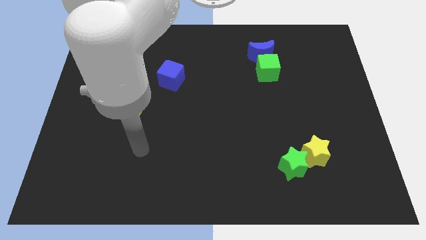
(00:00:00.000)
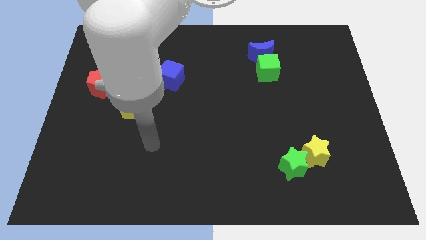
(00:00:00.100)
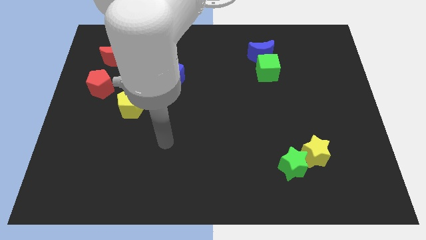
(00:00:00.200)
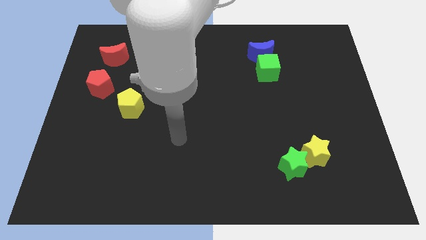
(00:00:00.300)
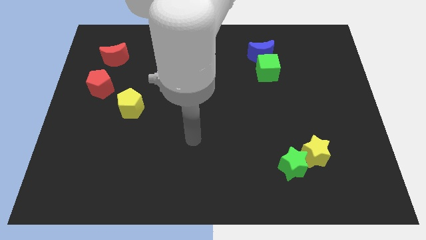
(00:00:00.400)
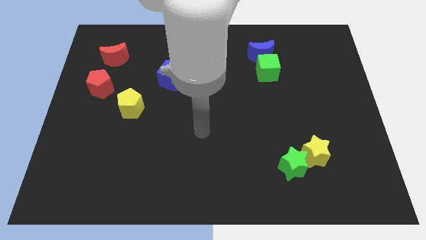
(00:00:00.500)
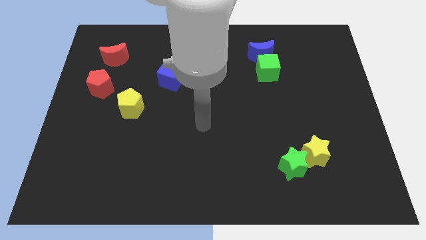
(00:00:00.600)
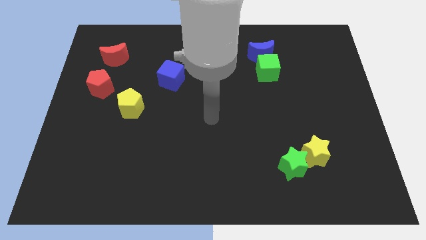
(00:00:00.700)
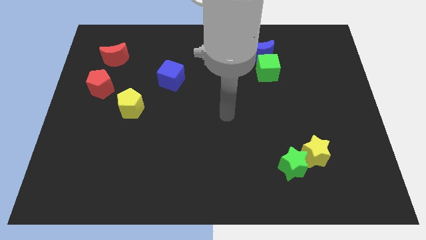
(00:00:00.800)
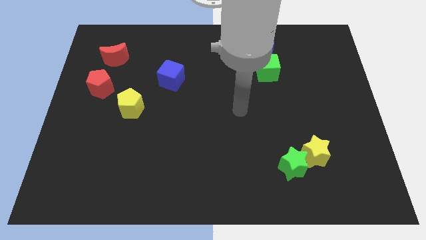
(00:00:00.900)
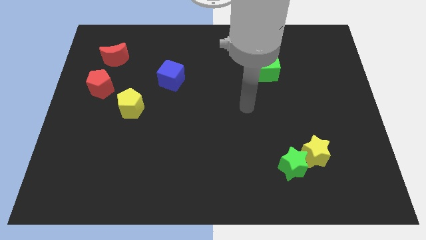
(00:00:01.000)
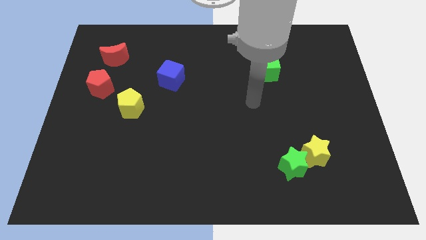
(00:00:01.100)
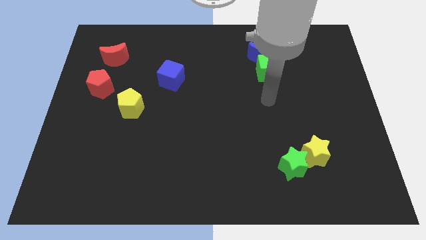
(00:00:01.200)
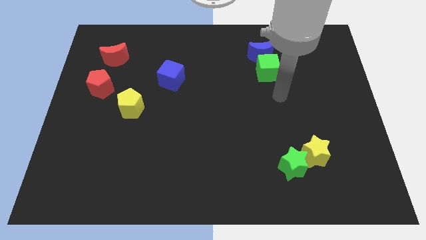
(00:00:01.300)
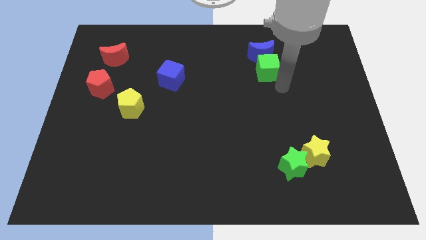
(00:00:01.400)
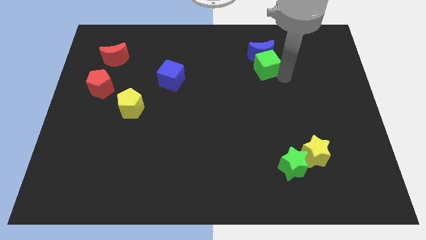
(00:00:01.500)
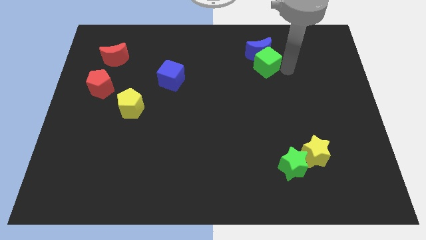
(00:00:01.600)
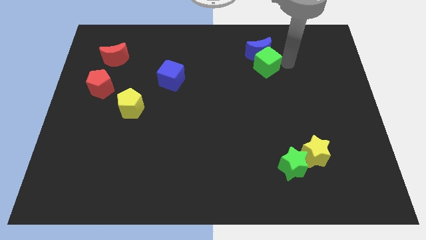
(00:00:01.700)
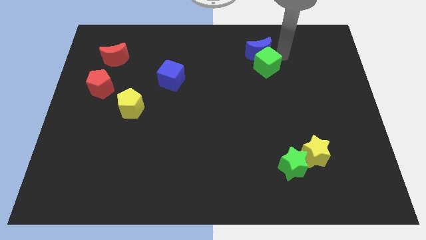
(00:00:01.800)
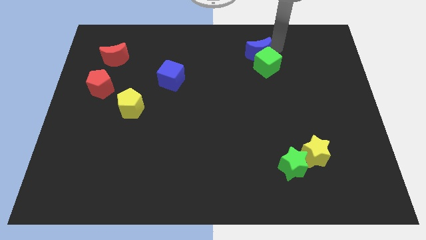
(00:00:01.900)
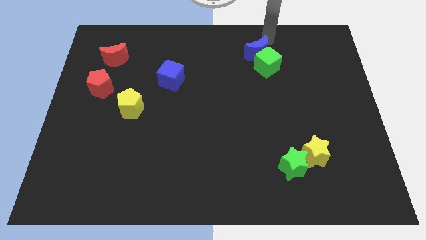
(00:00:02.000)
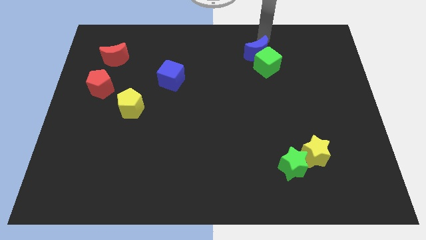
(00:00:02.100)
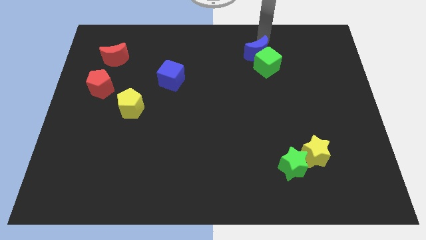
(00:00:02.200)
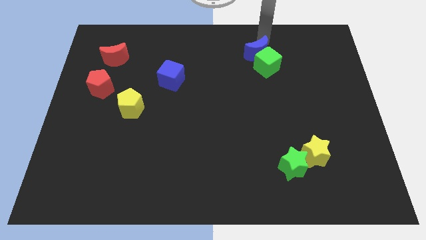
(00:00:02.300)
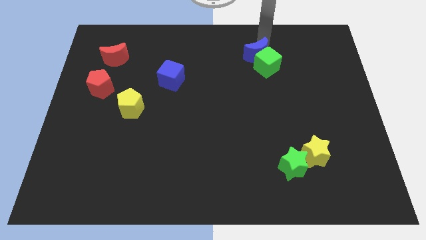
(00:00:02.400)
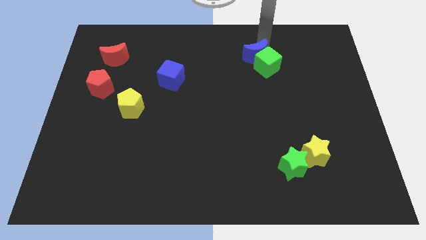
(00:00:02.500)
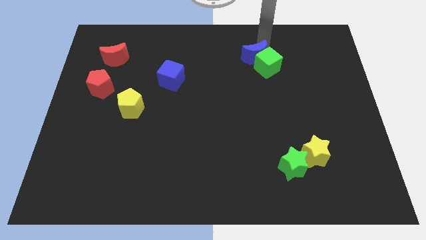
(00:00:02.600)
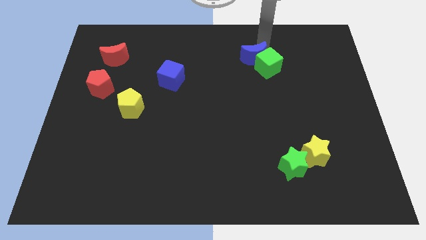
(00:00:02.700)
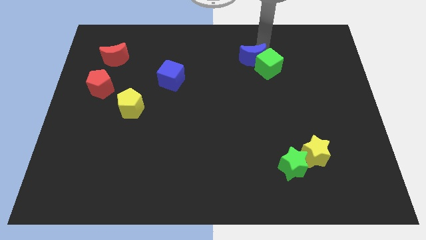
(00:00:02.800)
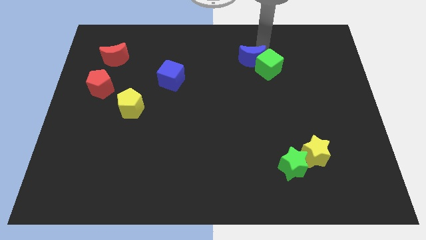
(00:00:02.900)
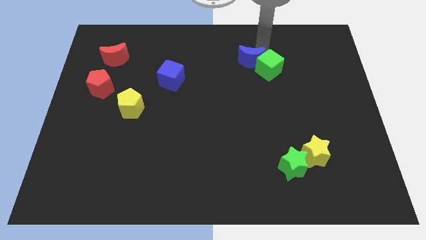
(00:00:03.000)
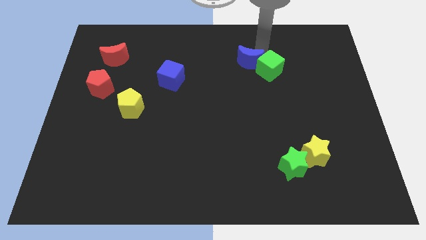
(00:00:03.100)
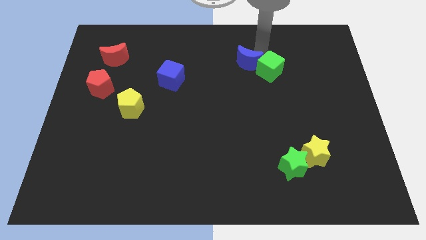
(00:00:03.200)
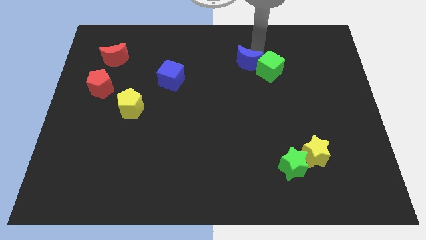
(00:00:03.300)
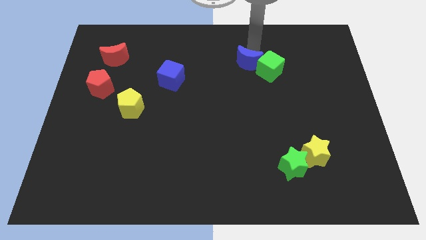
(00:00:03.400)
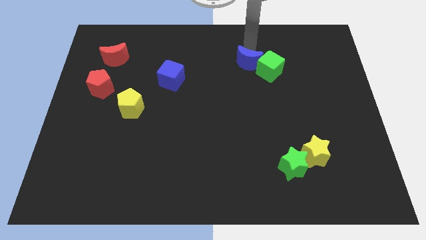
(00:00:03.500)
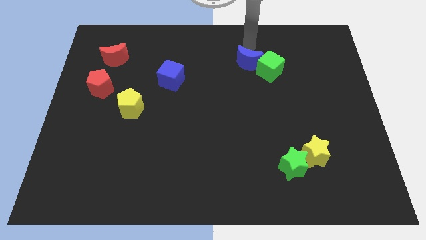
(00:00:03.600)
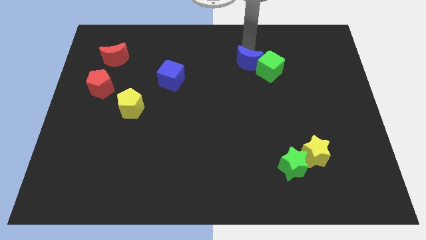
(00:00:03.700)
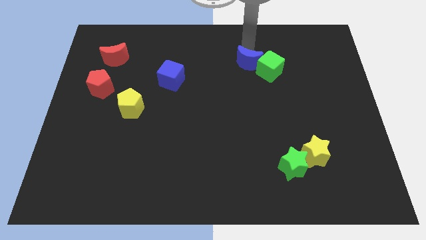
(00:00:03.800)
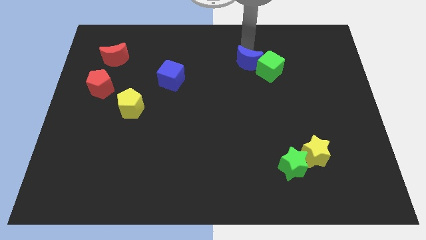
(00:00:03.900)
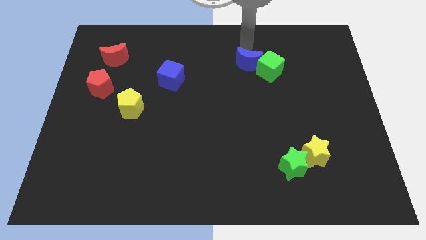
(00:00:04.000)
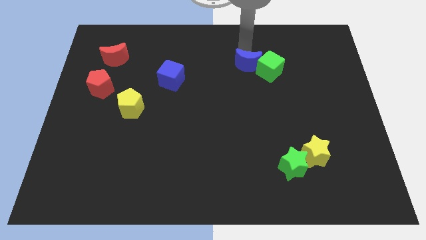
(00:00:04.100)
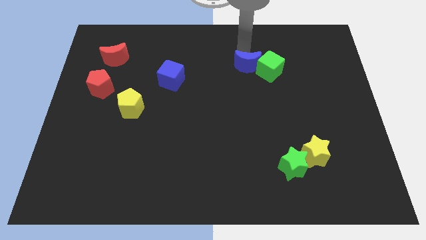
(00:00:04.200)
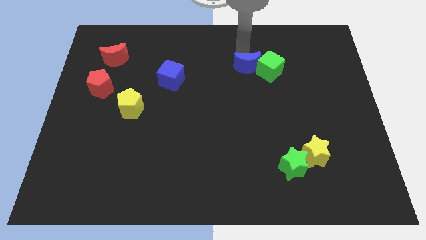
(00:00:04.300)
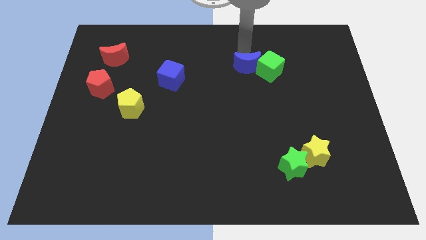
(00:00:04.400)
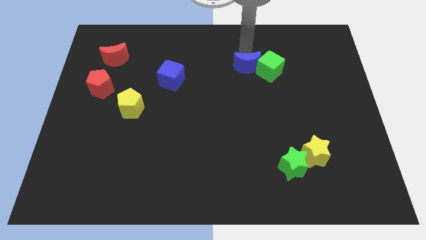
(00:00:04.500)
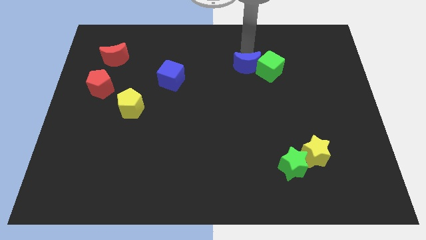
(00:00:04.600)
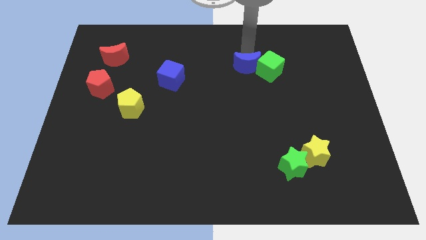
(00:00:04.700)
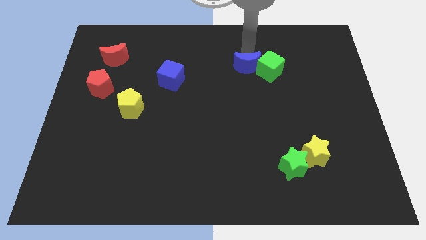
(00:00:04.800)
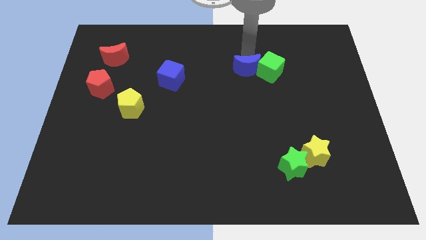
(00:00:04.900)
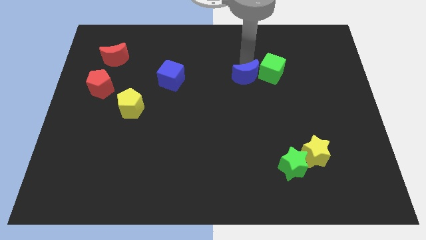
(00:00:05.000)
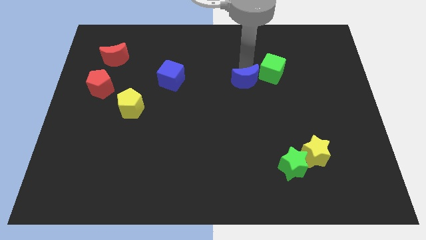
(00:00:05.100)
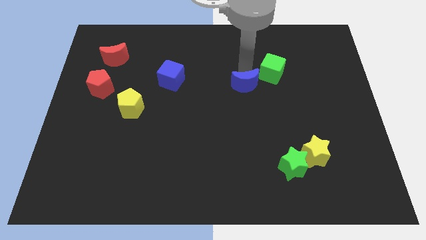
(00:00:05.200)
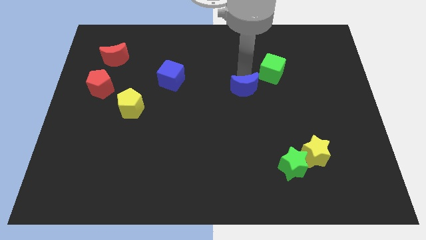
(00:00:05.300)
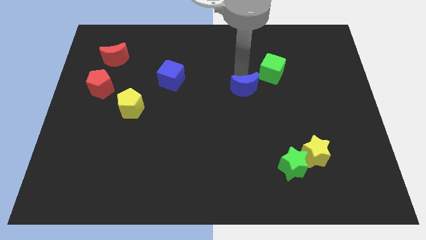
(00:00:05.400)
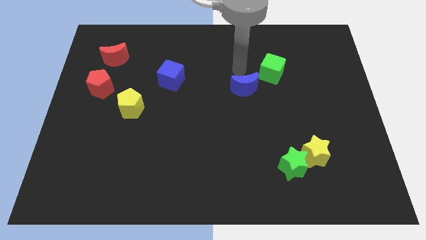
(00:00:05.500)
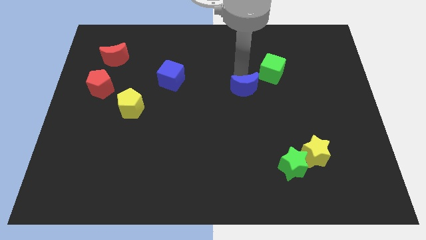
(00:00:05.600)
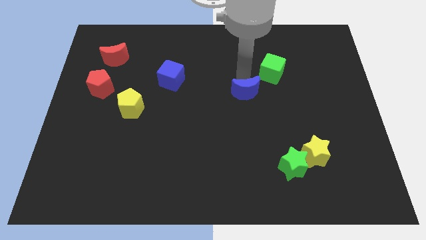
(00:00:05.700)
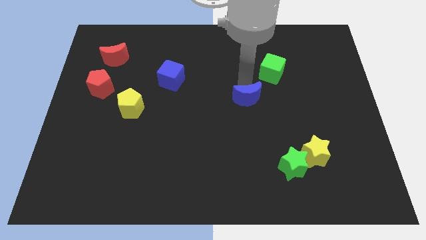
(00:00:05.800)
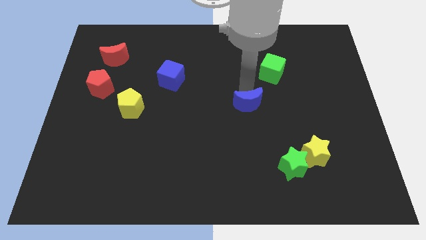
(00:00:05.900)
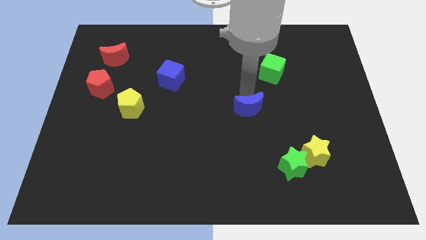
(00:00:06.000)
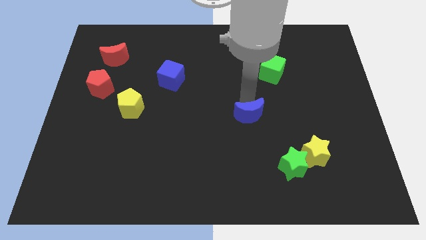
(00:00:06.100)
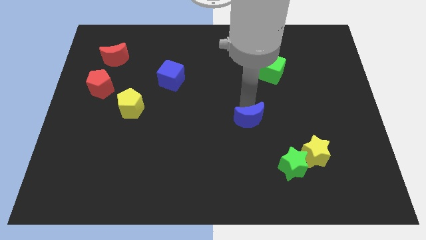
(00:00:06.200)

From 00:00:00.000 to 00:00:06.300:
slide the blue moon downwards

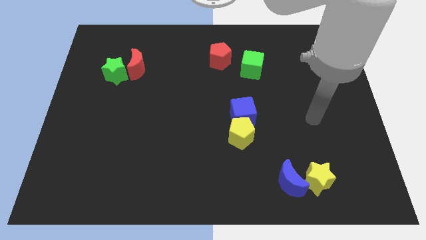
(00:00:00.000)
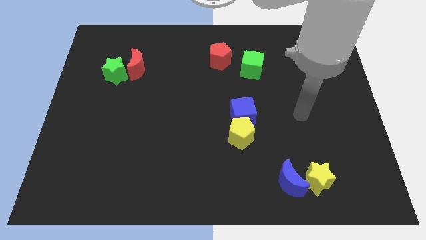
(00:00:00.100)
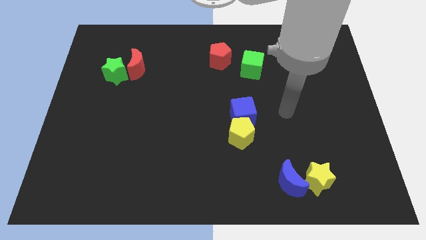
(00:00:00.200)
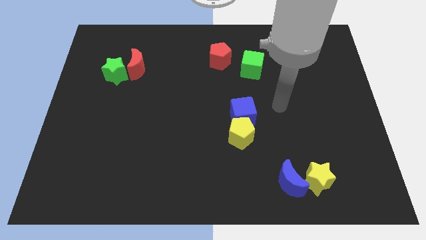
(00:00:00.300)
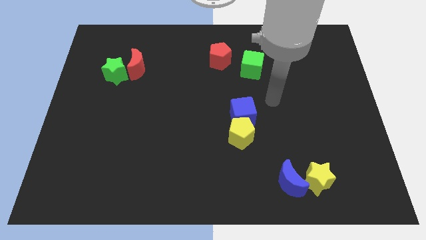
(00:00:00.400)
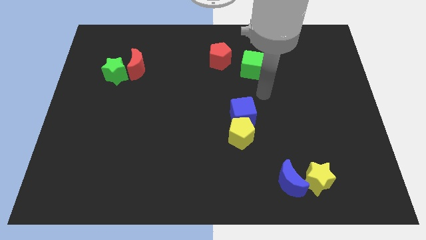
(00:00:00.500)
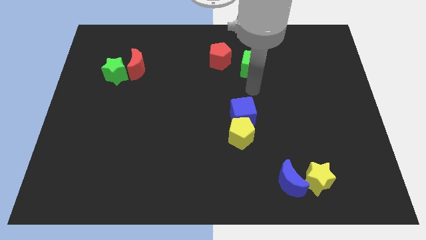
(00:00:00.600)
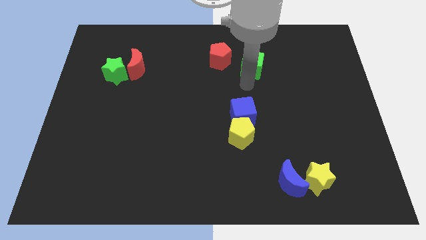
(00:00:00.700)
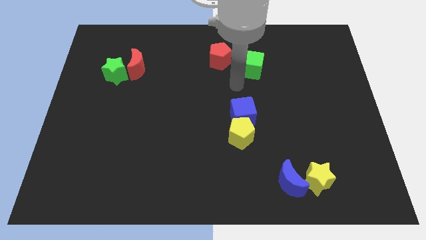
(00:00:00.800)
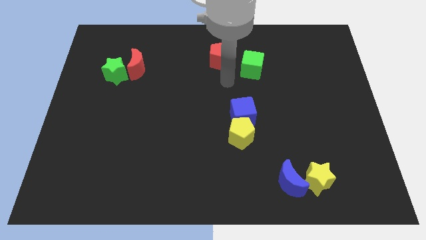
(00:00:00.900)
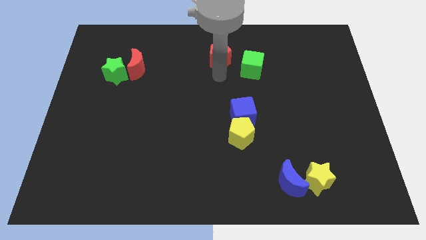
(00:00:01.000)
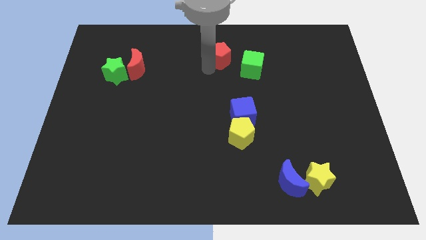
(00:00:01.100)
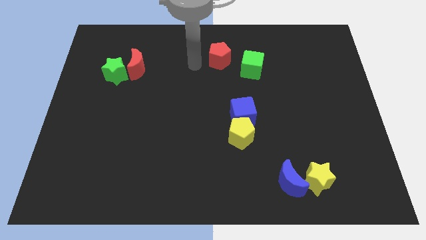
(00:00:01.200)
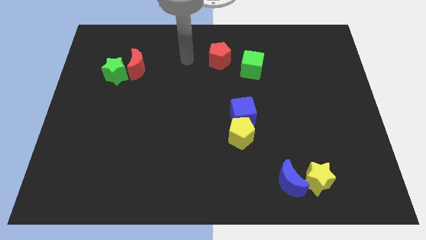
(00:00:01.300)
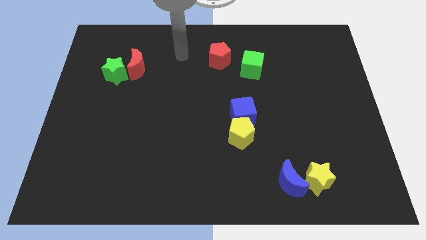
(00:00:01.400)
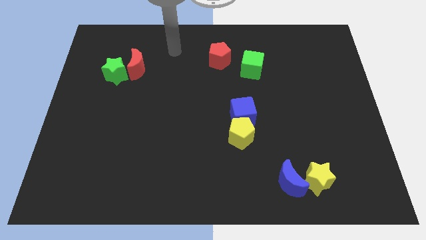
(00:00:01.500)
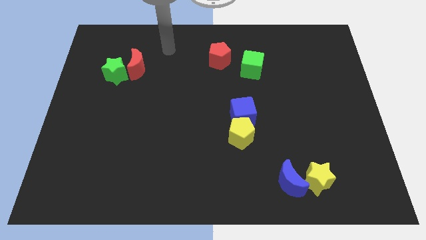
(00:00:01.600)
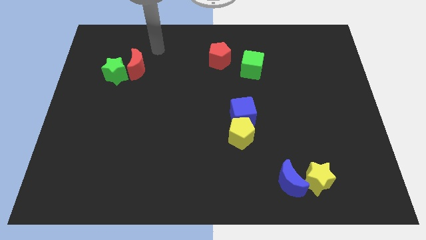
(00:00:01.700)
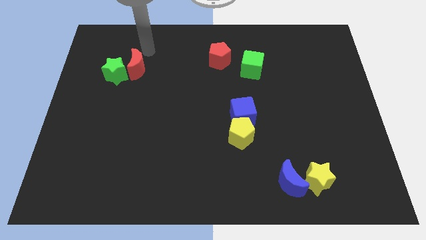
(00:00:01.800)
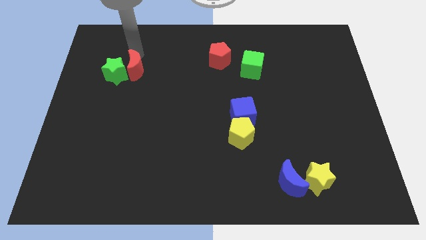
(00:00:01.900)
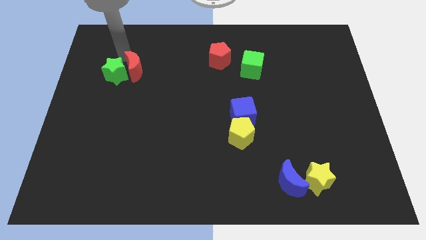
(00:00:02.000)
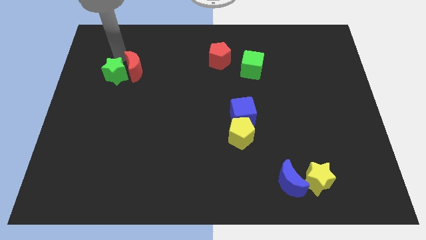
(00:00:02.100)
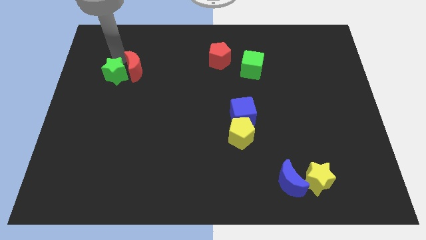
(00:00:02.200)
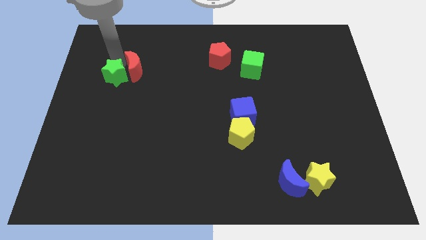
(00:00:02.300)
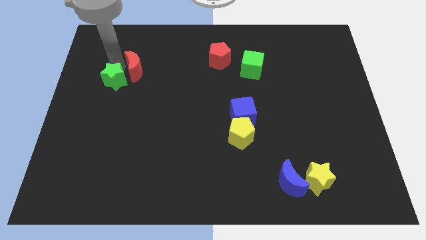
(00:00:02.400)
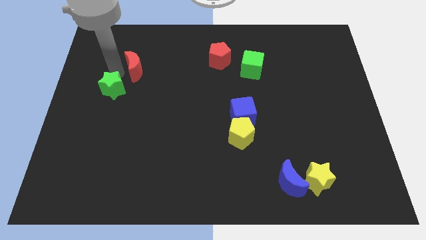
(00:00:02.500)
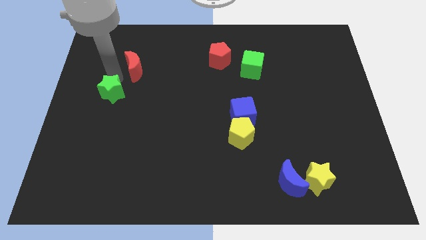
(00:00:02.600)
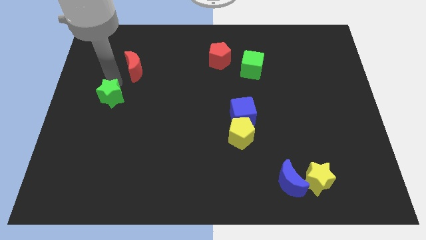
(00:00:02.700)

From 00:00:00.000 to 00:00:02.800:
move the green star a bit down
